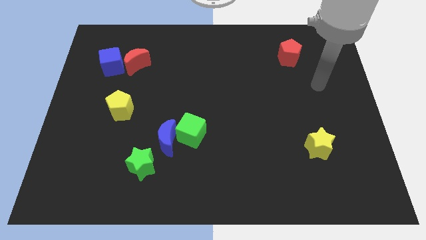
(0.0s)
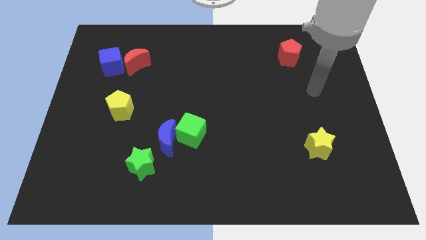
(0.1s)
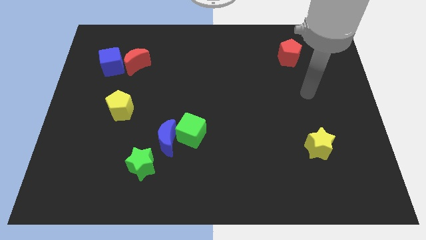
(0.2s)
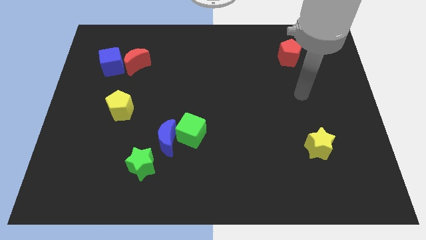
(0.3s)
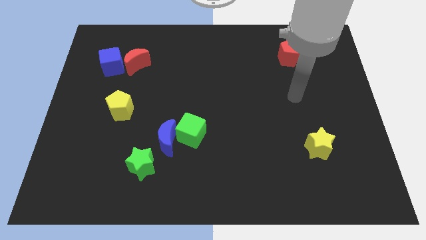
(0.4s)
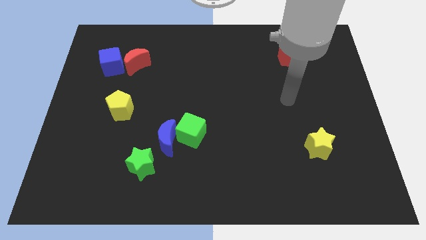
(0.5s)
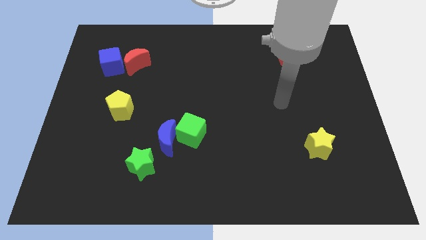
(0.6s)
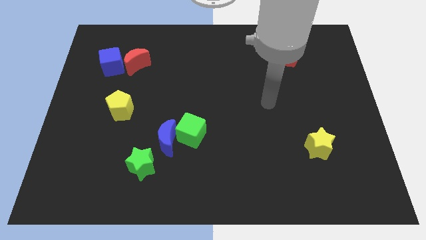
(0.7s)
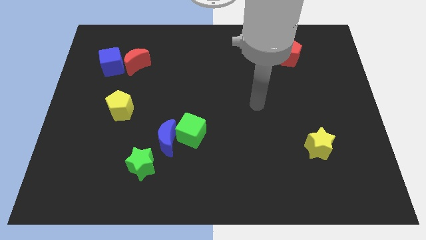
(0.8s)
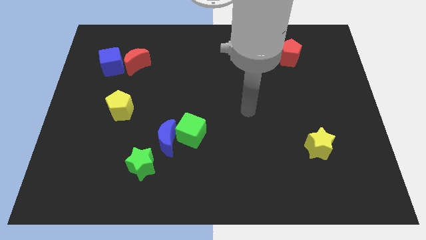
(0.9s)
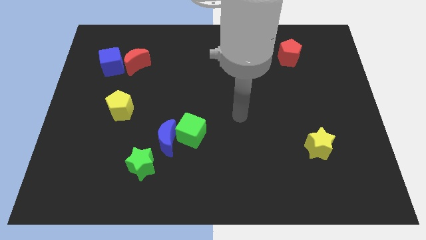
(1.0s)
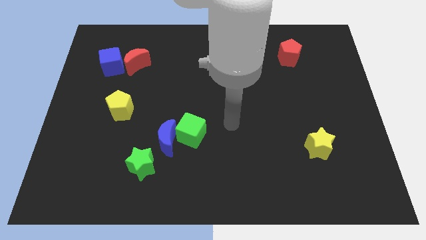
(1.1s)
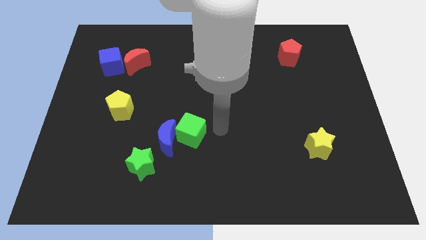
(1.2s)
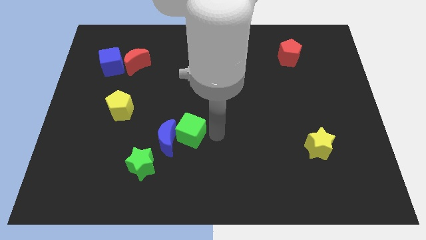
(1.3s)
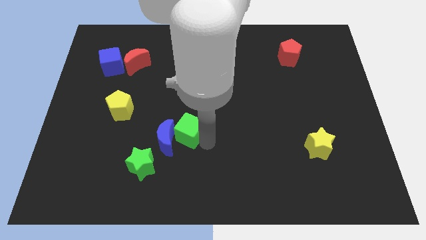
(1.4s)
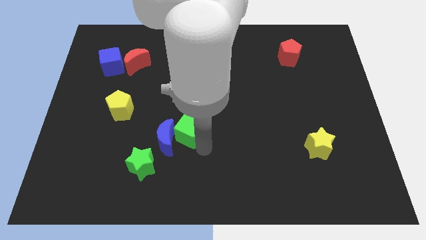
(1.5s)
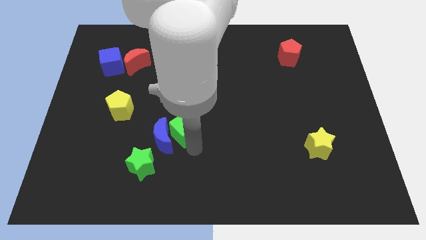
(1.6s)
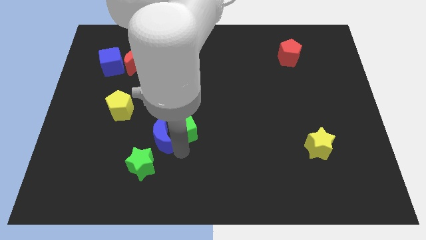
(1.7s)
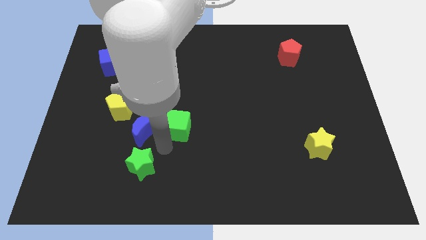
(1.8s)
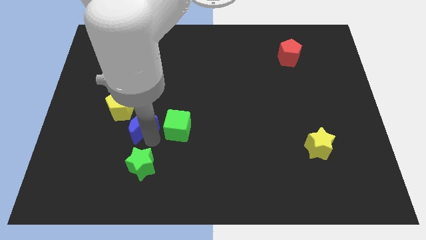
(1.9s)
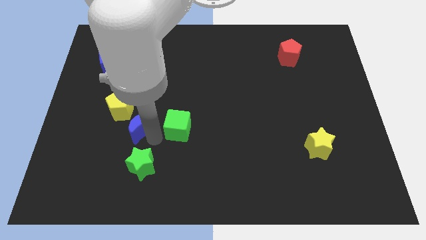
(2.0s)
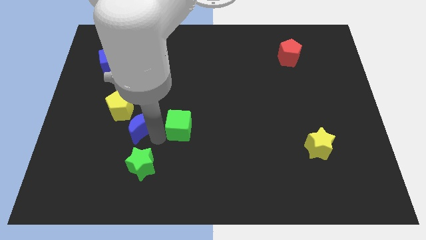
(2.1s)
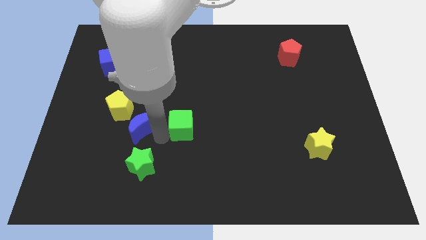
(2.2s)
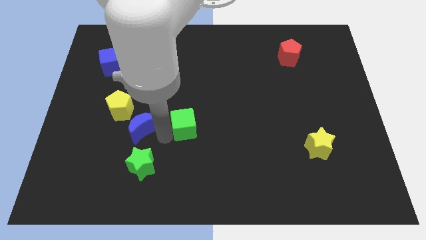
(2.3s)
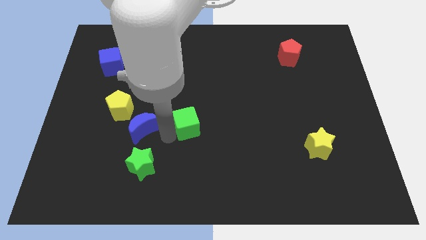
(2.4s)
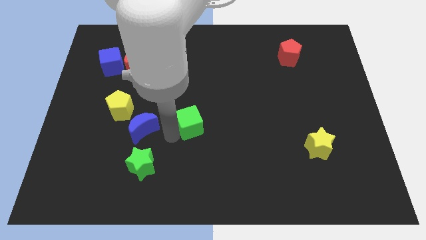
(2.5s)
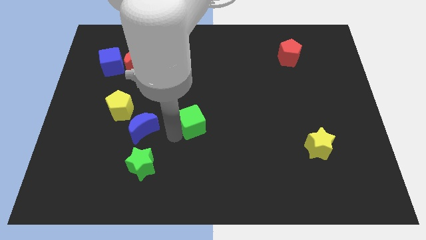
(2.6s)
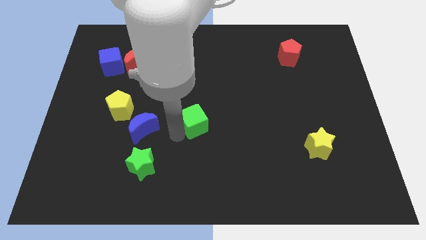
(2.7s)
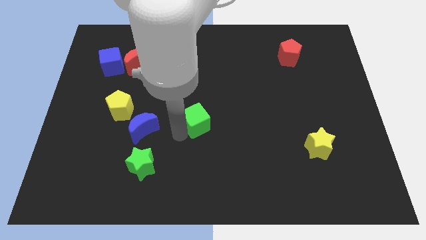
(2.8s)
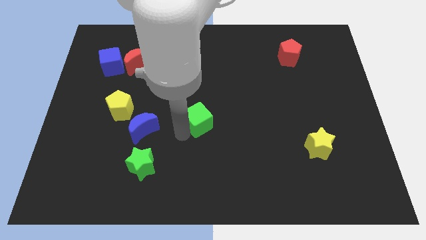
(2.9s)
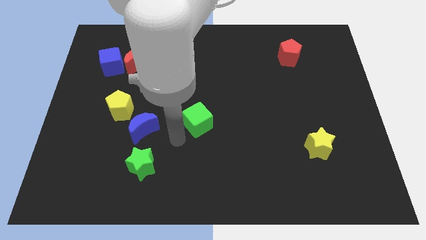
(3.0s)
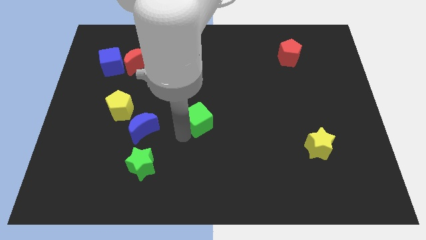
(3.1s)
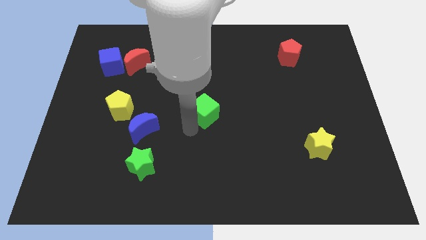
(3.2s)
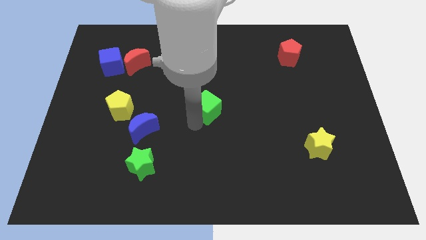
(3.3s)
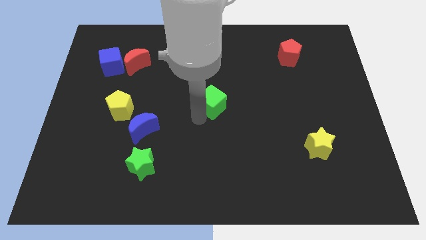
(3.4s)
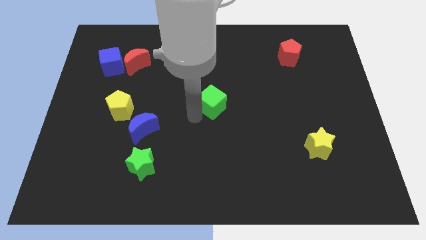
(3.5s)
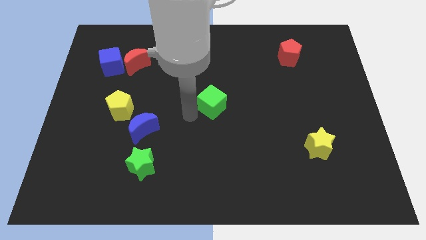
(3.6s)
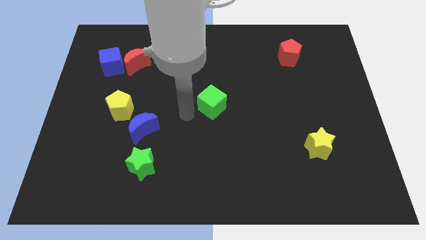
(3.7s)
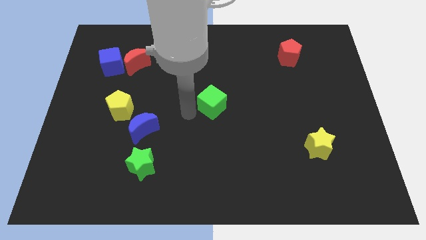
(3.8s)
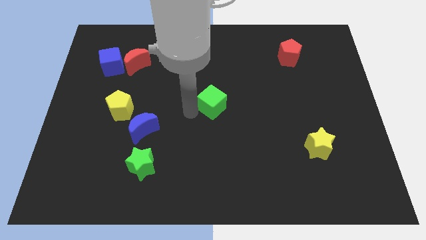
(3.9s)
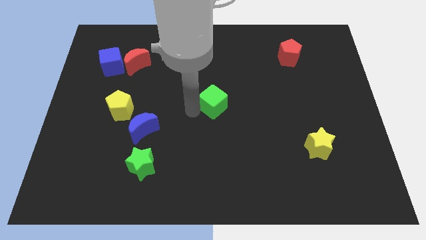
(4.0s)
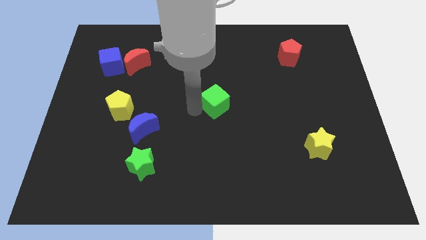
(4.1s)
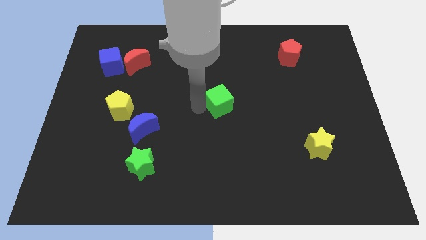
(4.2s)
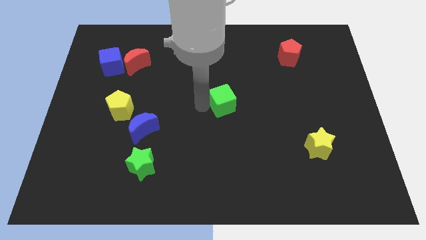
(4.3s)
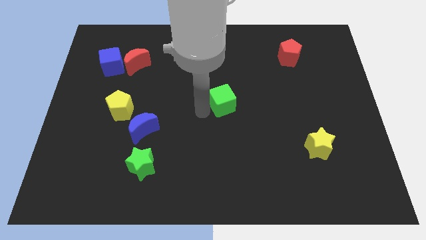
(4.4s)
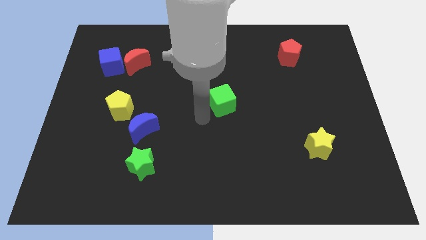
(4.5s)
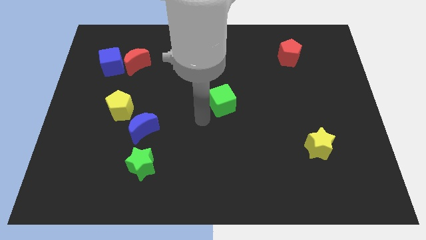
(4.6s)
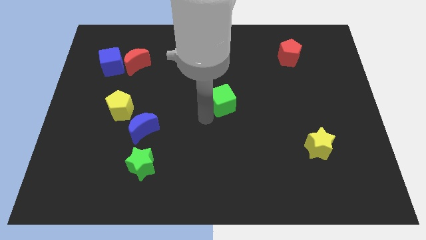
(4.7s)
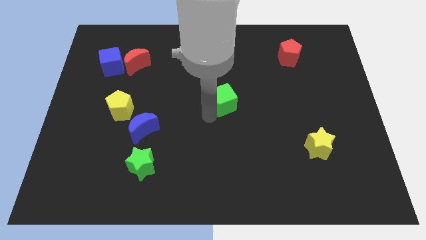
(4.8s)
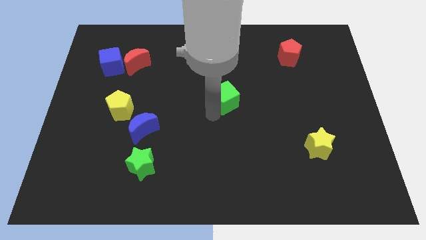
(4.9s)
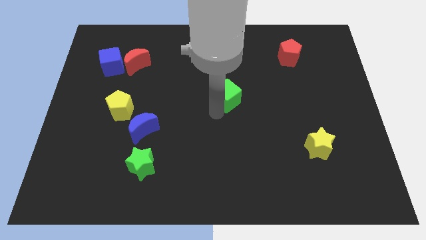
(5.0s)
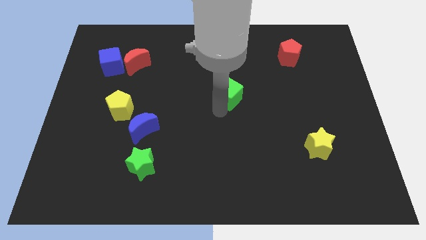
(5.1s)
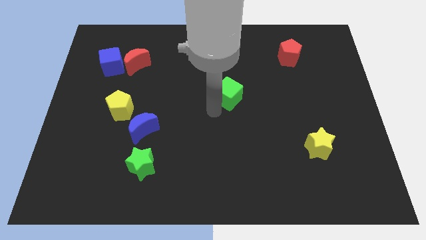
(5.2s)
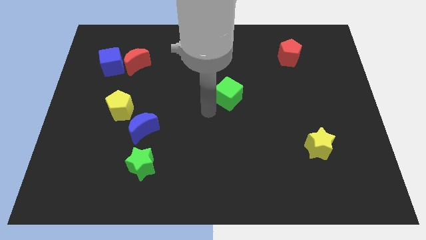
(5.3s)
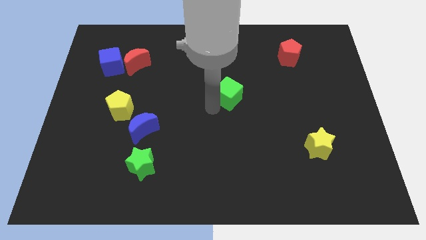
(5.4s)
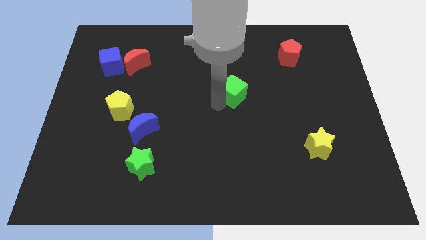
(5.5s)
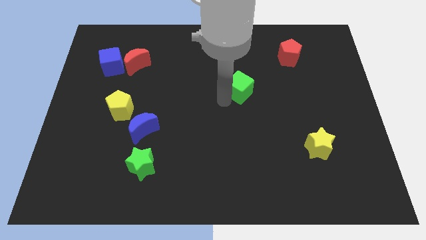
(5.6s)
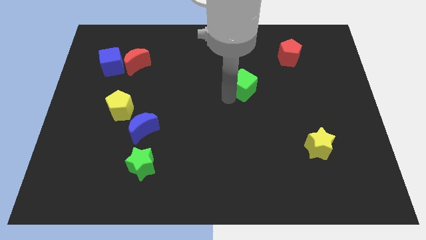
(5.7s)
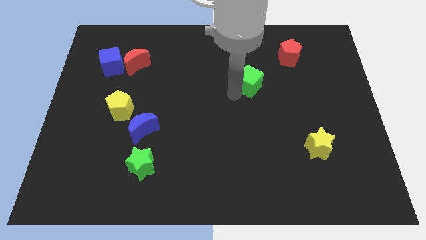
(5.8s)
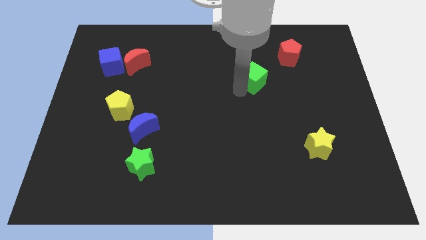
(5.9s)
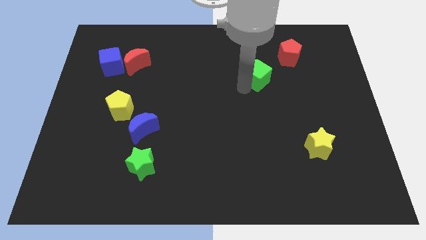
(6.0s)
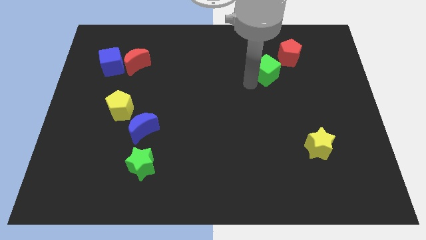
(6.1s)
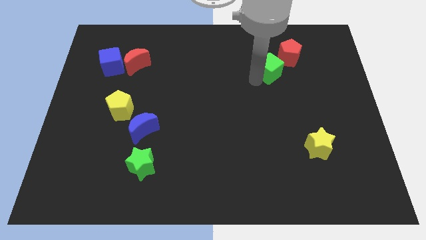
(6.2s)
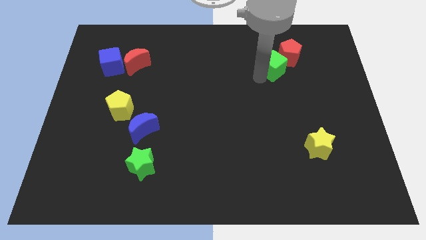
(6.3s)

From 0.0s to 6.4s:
put the green cube close to the red pentagon

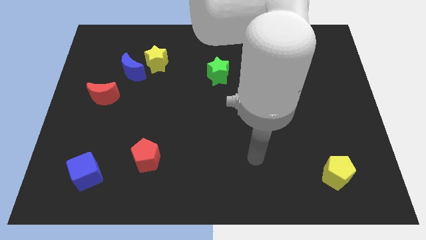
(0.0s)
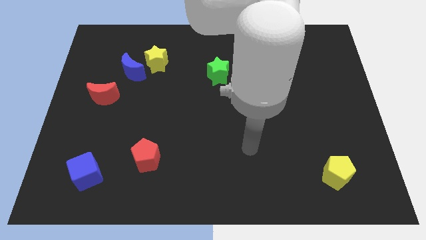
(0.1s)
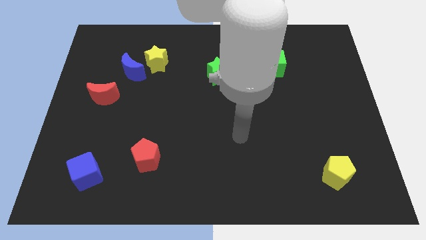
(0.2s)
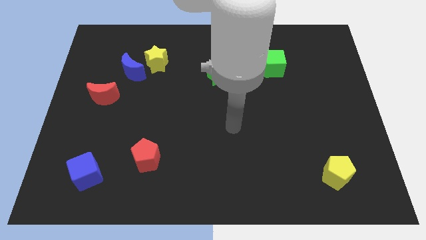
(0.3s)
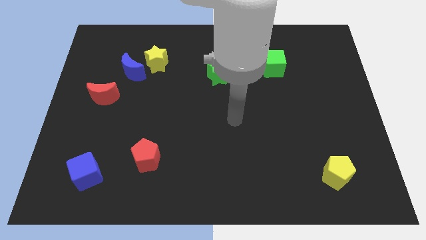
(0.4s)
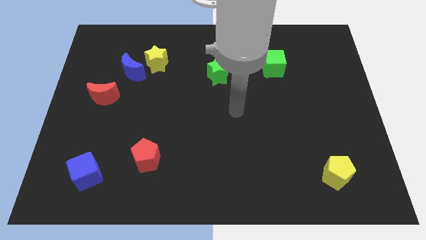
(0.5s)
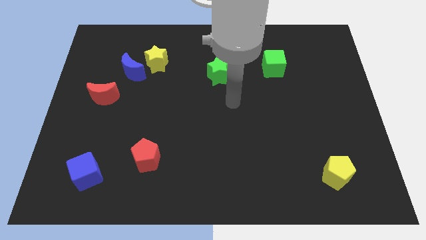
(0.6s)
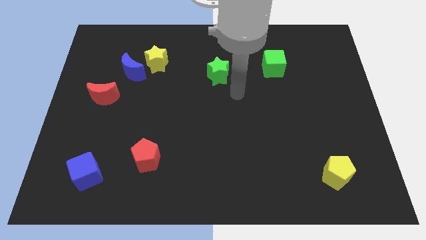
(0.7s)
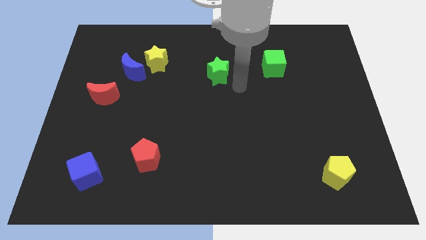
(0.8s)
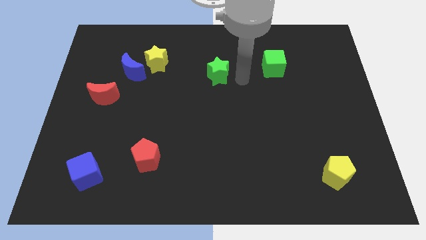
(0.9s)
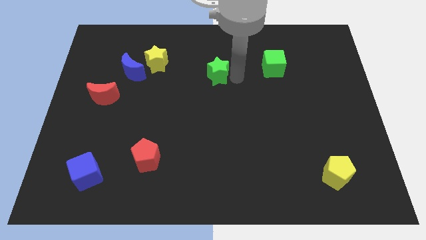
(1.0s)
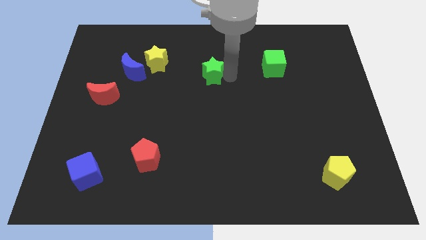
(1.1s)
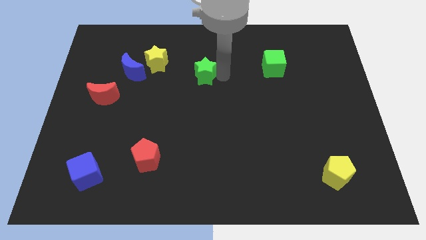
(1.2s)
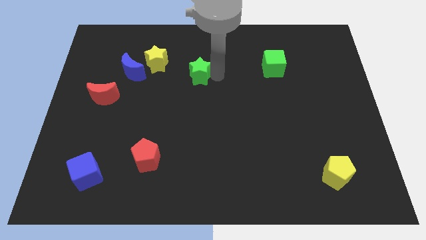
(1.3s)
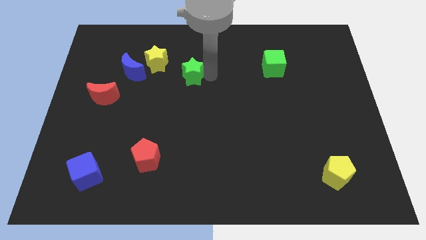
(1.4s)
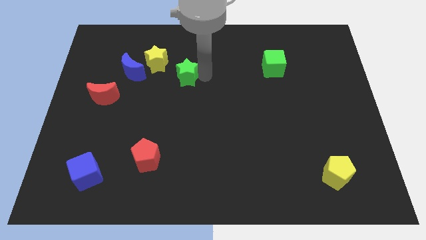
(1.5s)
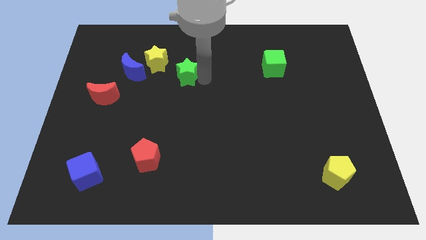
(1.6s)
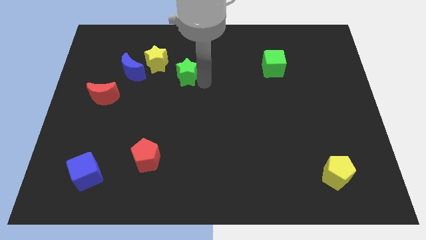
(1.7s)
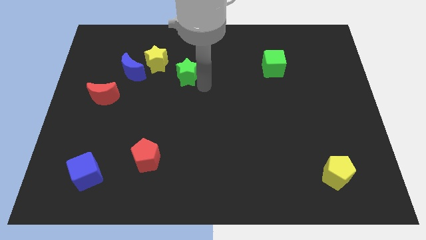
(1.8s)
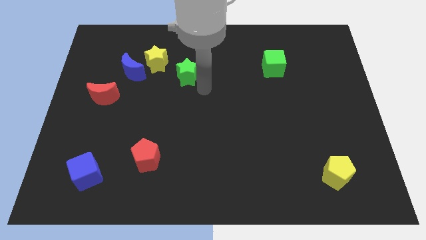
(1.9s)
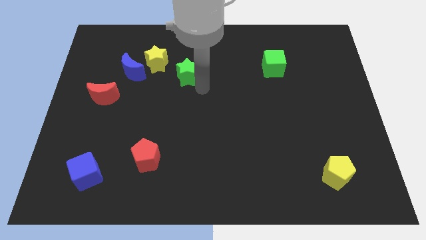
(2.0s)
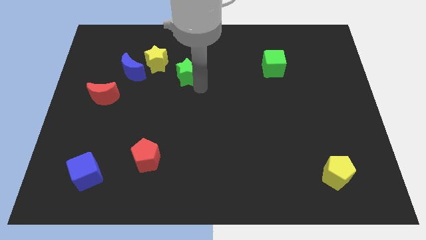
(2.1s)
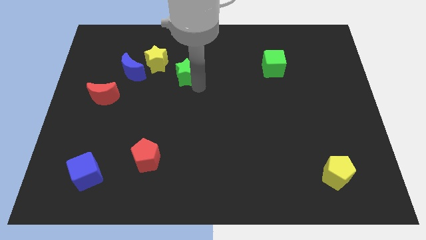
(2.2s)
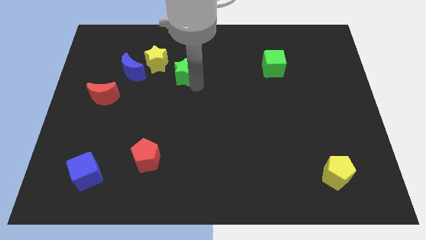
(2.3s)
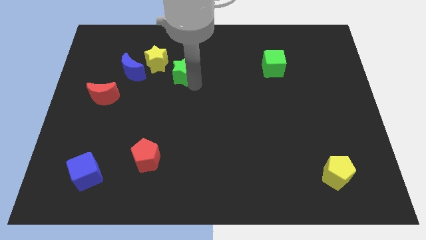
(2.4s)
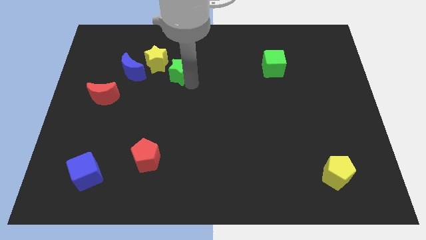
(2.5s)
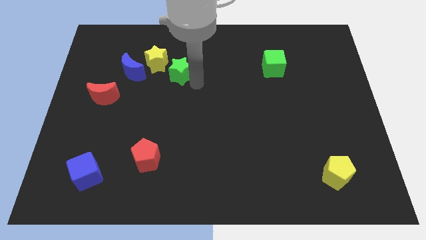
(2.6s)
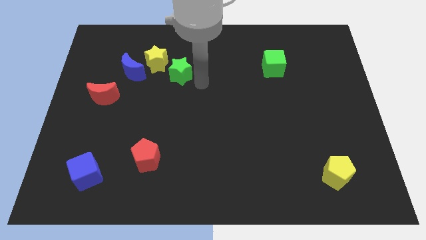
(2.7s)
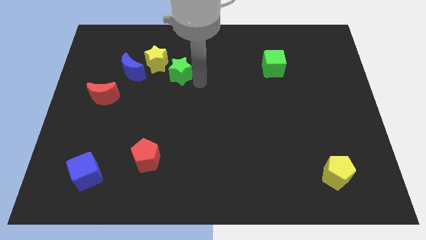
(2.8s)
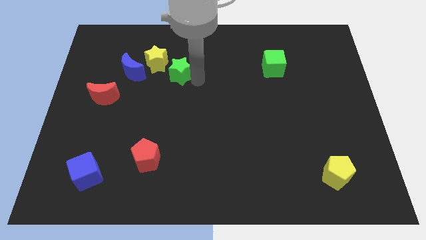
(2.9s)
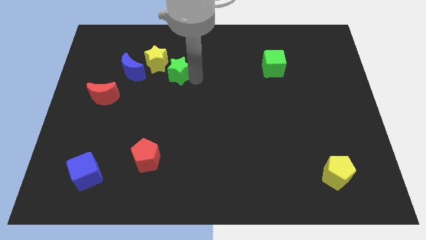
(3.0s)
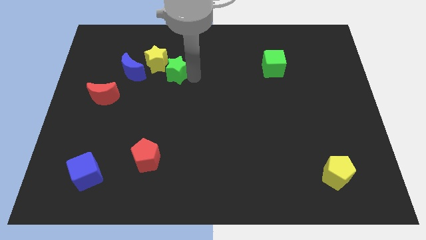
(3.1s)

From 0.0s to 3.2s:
put the green star close to the yellow star
